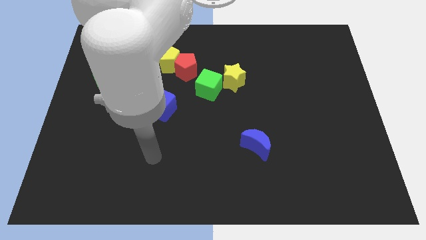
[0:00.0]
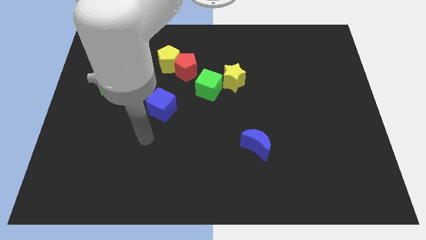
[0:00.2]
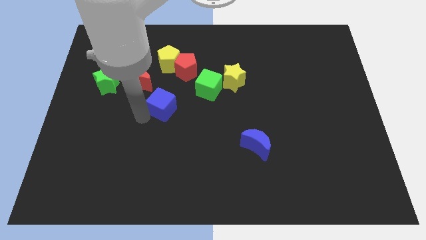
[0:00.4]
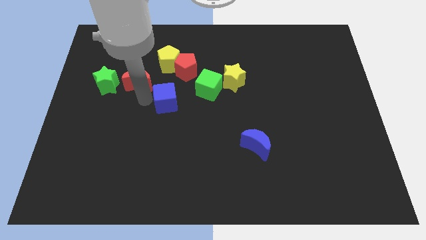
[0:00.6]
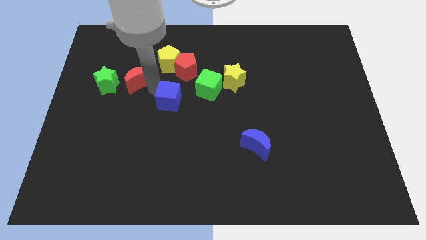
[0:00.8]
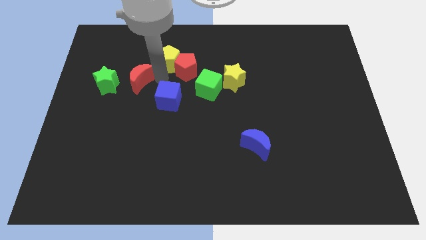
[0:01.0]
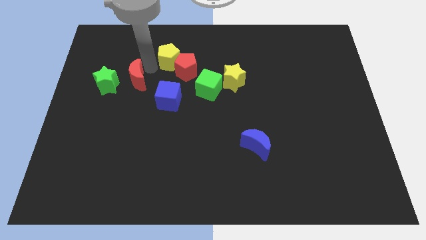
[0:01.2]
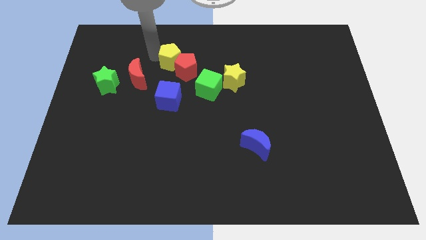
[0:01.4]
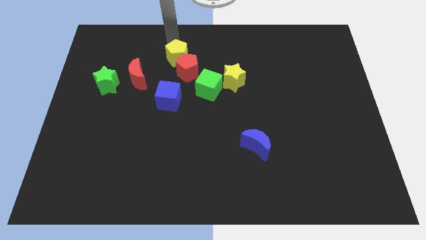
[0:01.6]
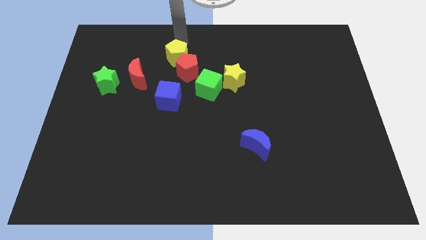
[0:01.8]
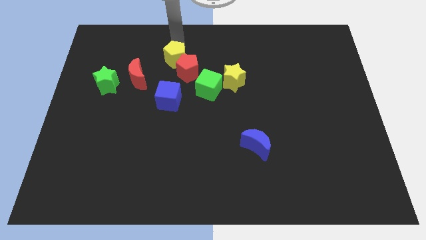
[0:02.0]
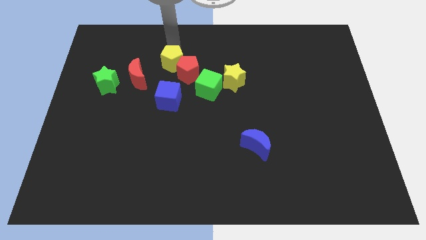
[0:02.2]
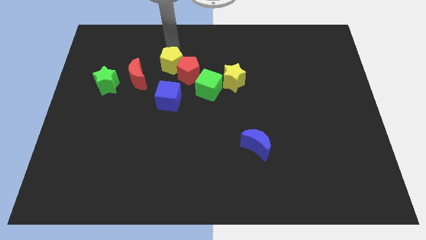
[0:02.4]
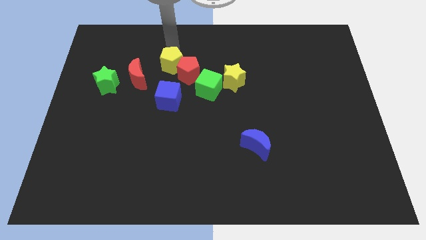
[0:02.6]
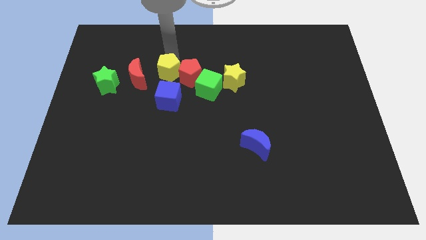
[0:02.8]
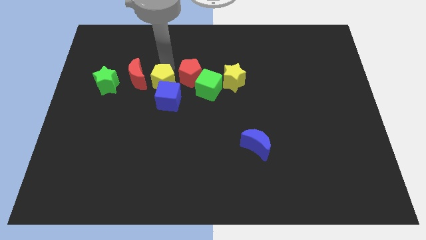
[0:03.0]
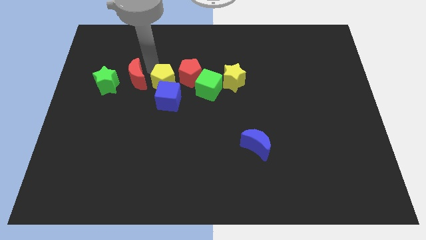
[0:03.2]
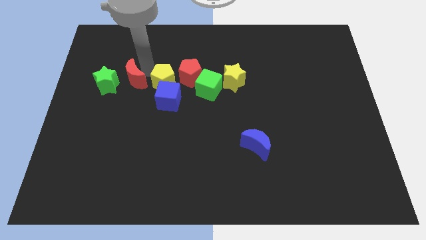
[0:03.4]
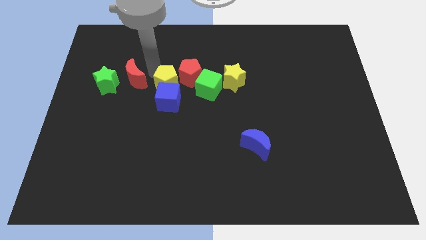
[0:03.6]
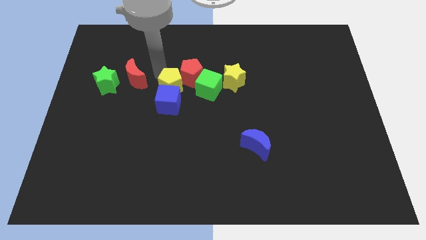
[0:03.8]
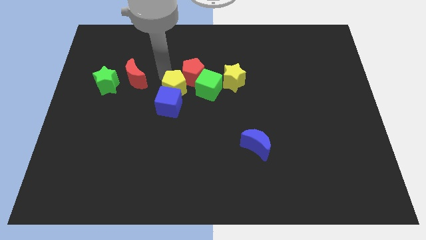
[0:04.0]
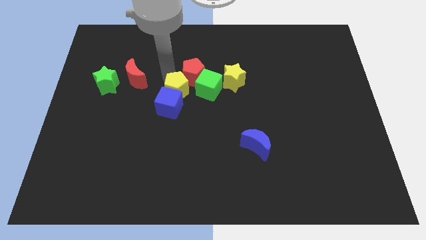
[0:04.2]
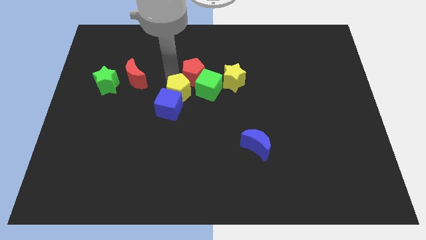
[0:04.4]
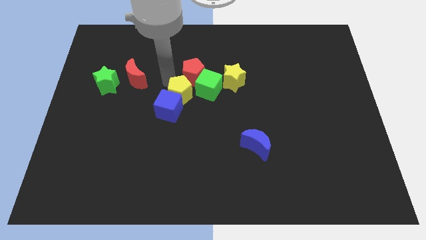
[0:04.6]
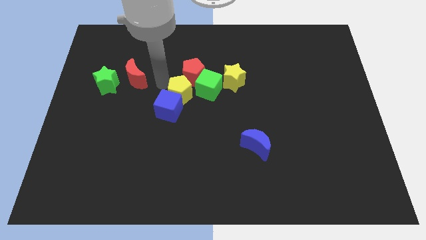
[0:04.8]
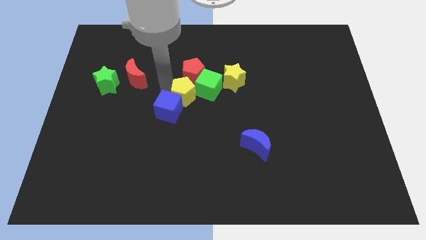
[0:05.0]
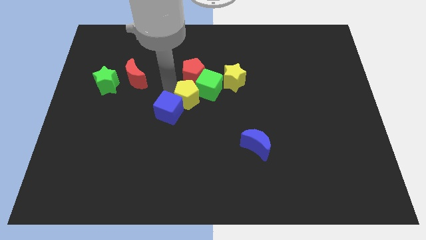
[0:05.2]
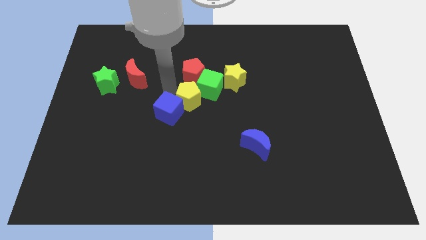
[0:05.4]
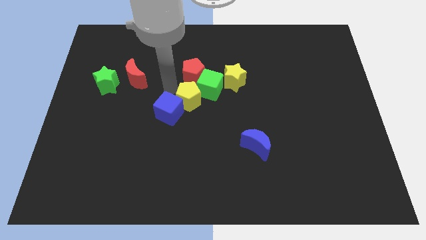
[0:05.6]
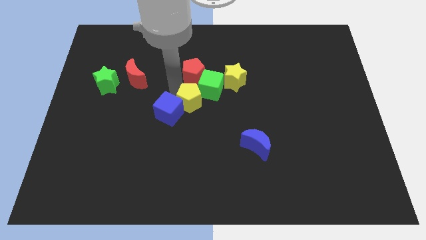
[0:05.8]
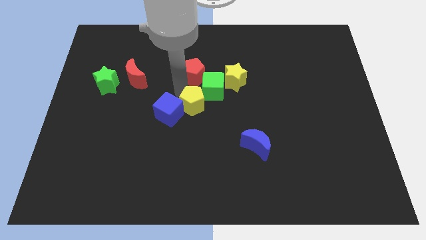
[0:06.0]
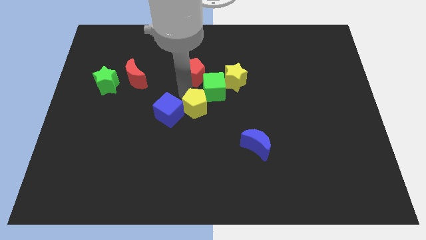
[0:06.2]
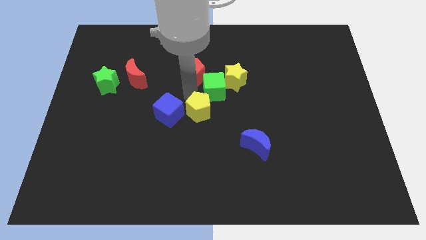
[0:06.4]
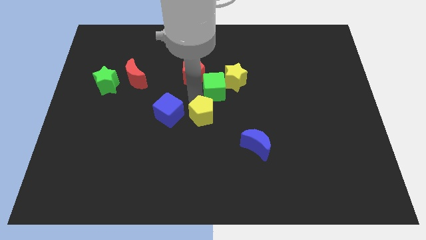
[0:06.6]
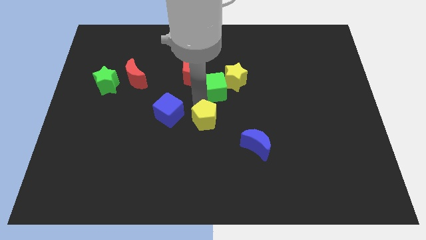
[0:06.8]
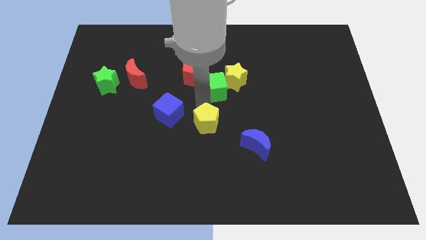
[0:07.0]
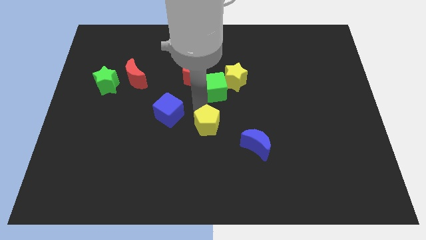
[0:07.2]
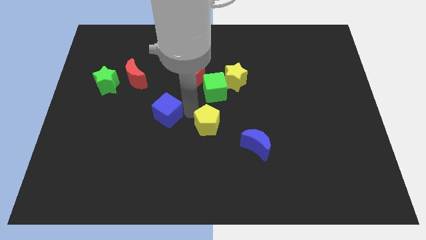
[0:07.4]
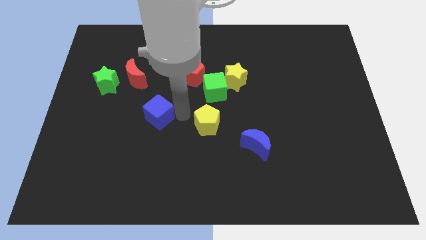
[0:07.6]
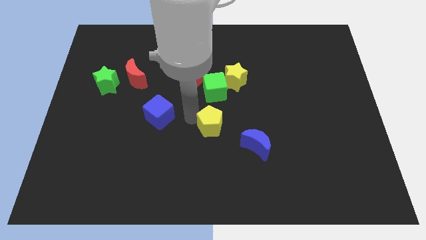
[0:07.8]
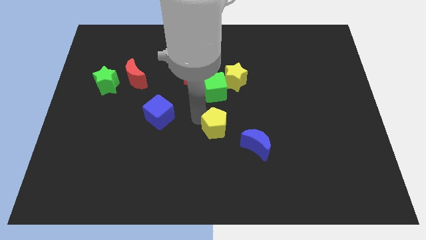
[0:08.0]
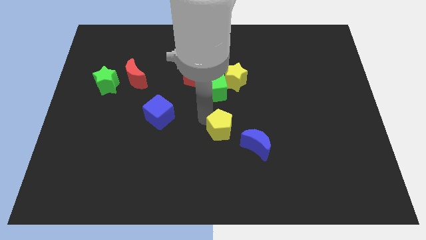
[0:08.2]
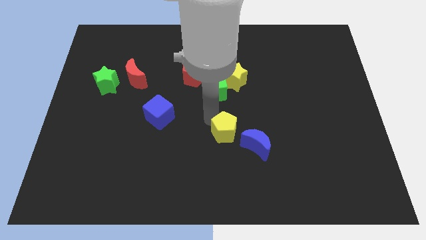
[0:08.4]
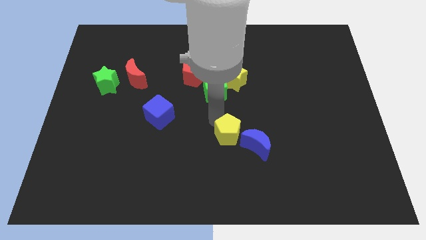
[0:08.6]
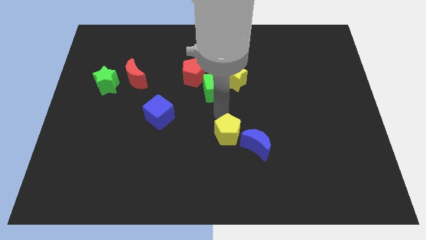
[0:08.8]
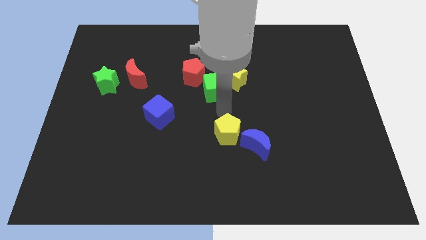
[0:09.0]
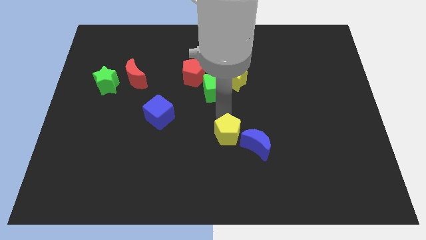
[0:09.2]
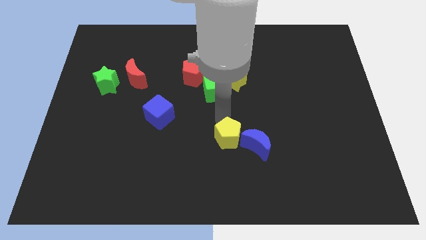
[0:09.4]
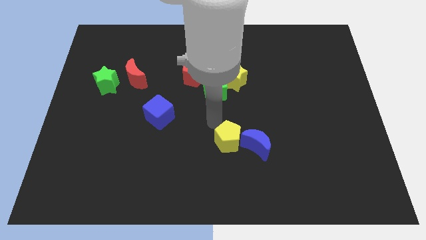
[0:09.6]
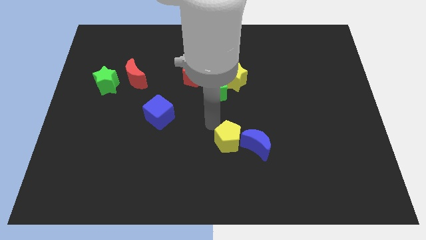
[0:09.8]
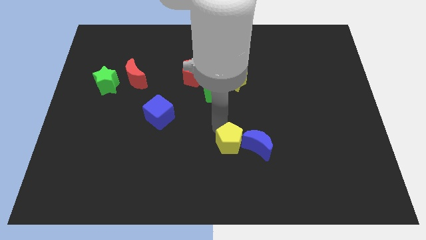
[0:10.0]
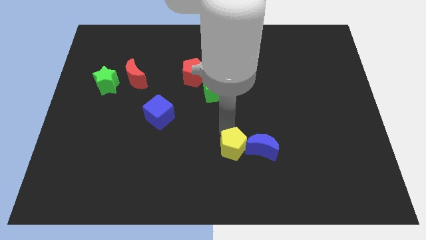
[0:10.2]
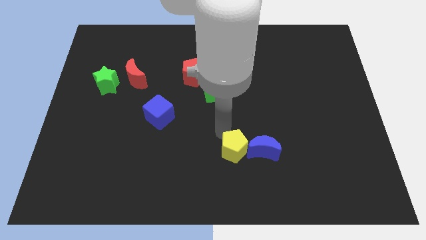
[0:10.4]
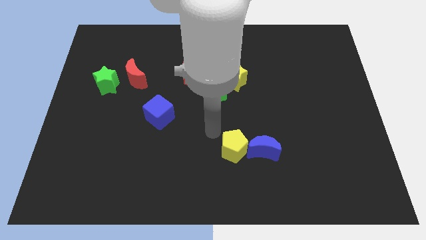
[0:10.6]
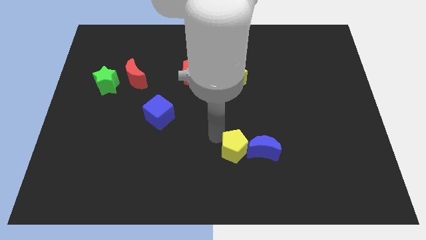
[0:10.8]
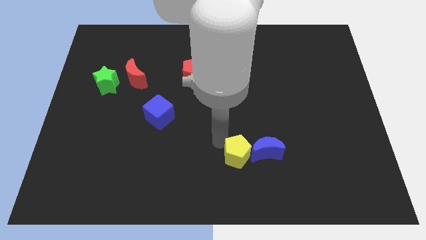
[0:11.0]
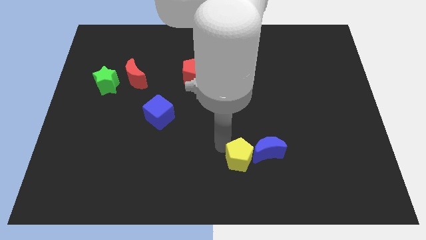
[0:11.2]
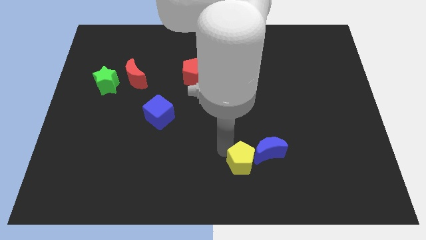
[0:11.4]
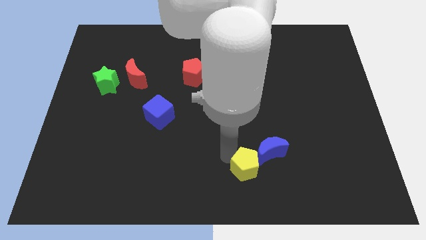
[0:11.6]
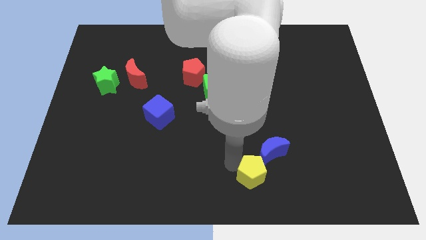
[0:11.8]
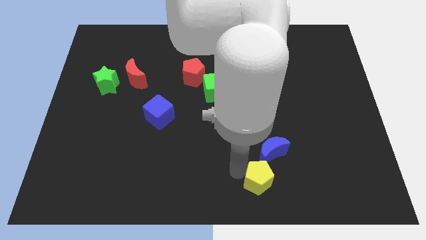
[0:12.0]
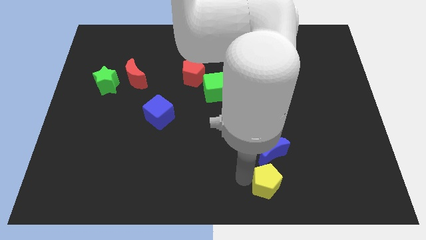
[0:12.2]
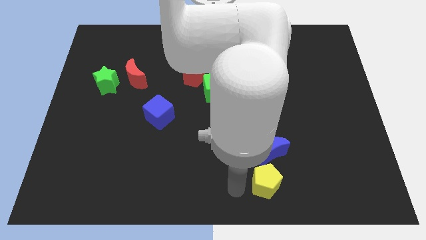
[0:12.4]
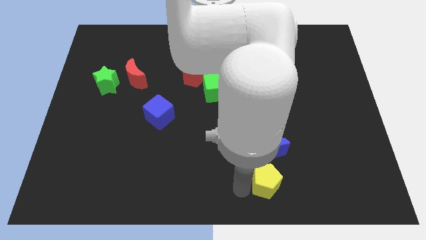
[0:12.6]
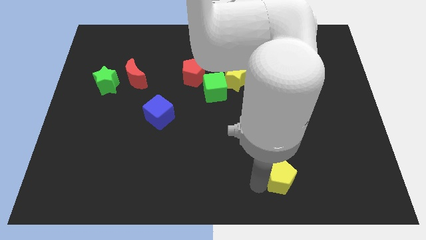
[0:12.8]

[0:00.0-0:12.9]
put the yellow pentagon to the bottom right of the blue moon

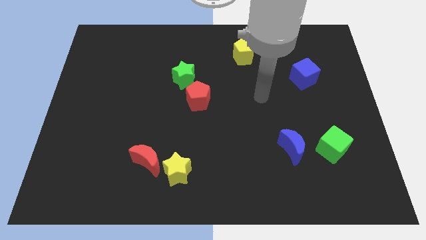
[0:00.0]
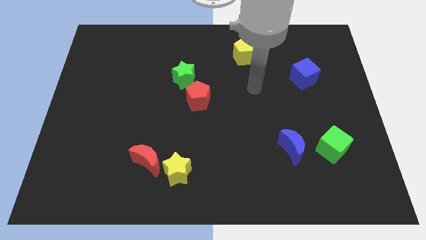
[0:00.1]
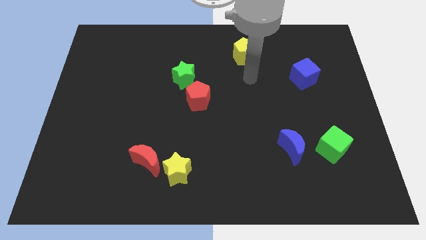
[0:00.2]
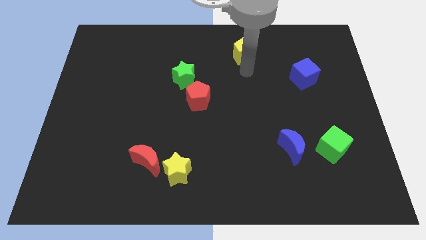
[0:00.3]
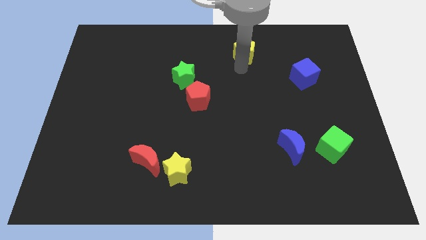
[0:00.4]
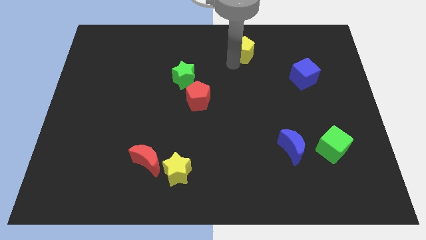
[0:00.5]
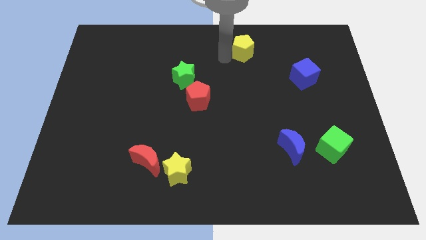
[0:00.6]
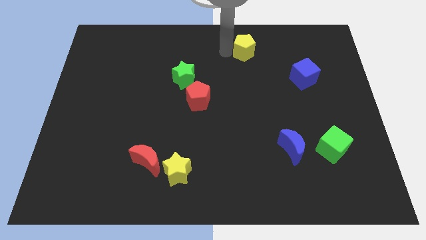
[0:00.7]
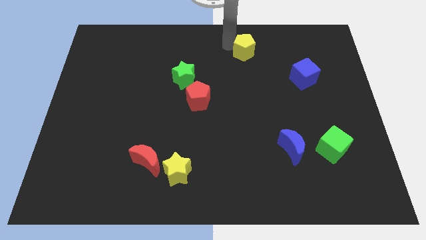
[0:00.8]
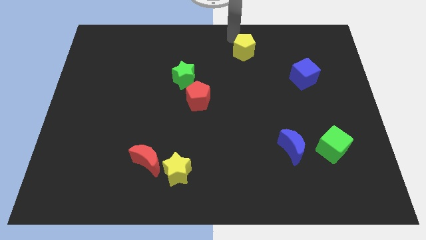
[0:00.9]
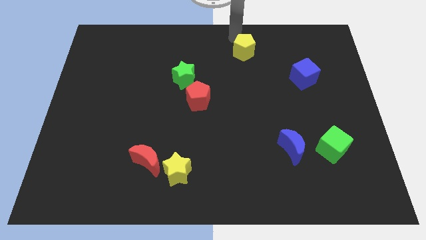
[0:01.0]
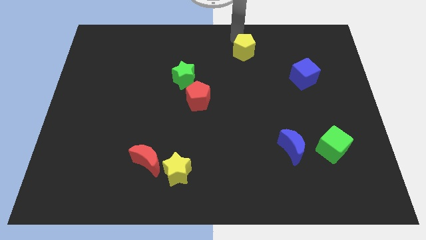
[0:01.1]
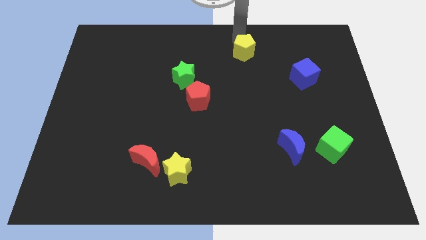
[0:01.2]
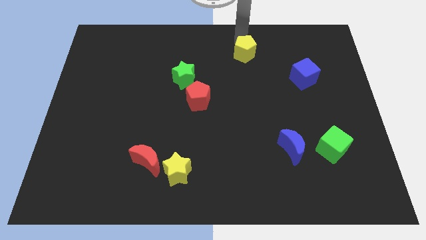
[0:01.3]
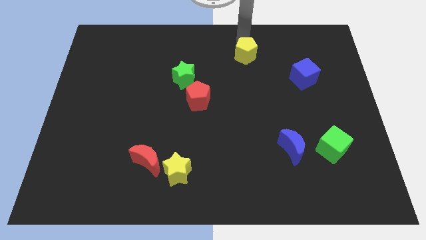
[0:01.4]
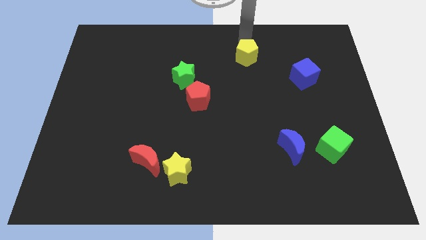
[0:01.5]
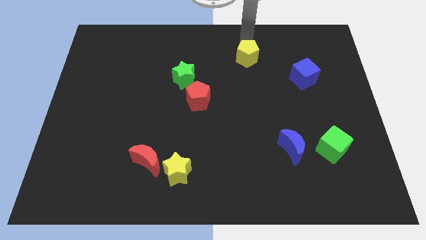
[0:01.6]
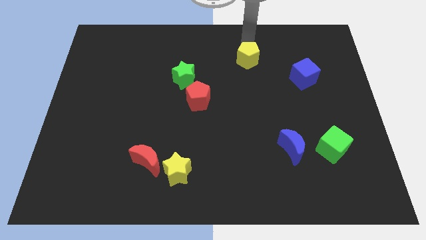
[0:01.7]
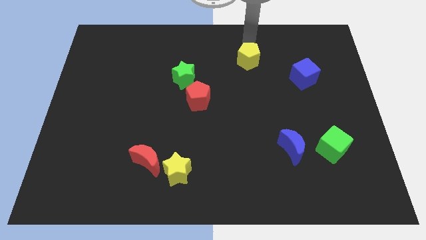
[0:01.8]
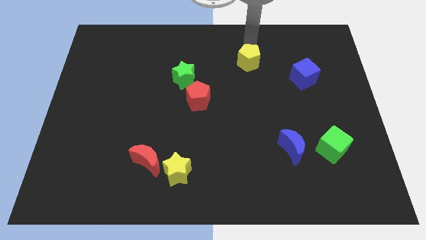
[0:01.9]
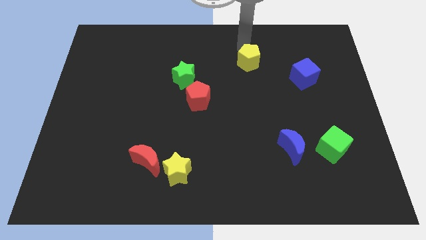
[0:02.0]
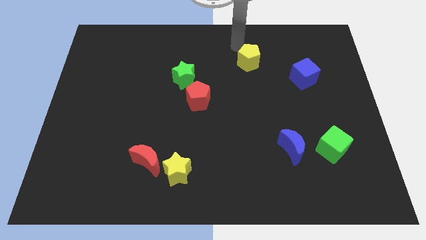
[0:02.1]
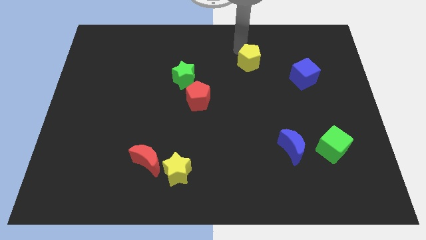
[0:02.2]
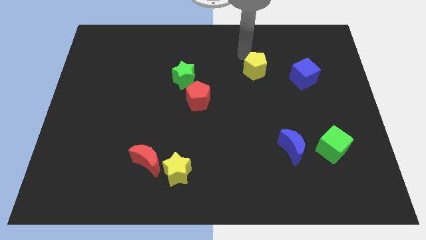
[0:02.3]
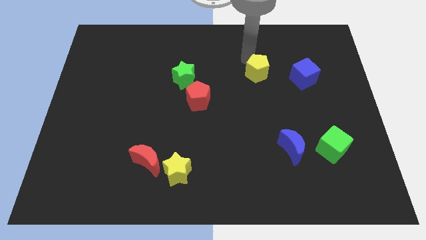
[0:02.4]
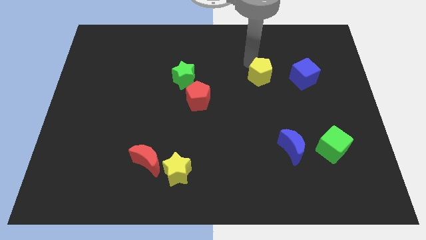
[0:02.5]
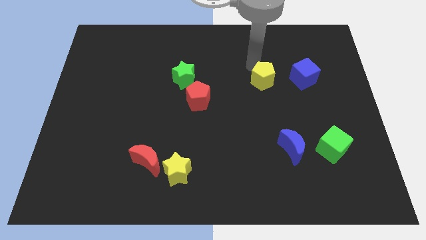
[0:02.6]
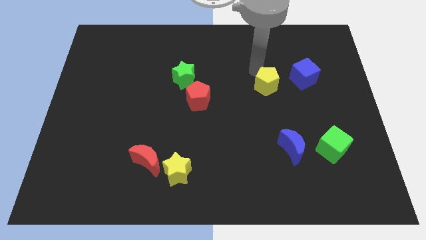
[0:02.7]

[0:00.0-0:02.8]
put the yellow pentagon diagonally down and to the left of the blue cube
